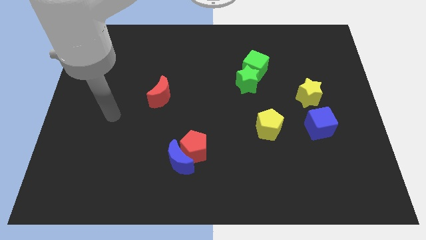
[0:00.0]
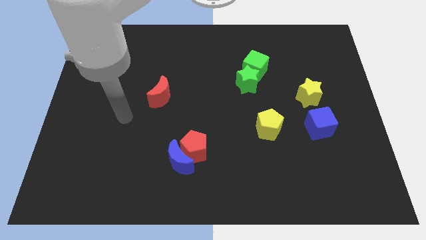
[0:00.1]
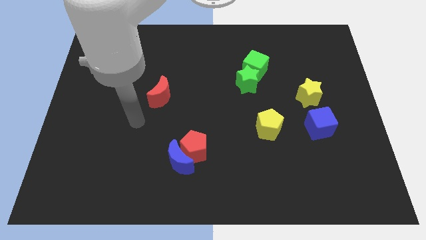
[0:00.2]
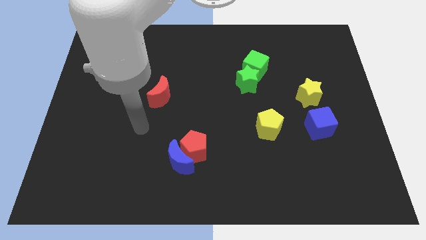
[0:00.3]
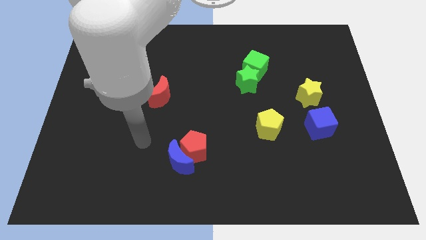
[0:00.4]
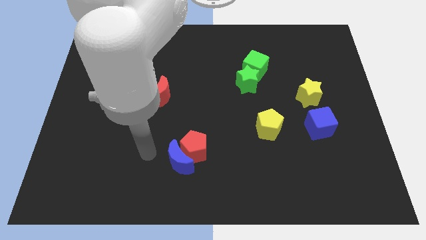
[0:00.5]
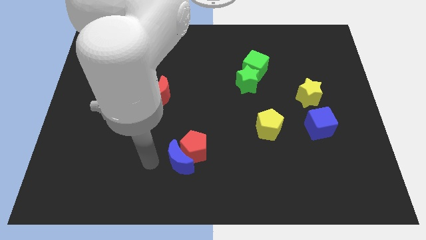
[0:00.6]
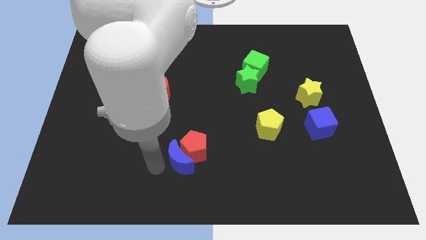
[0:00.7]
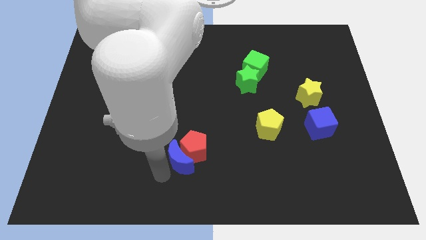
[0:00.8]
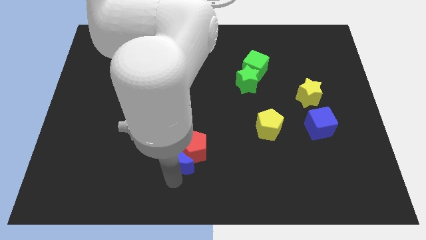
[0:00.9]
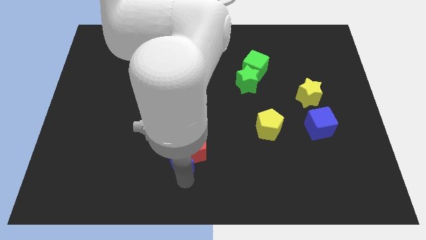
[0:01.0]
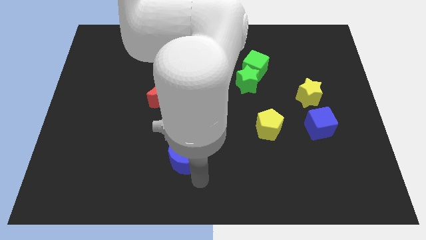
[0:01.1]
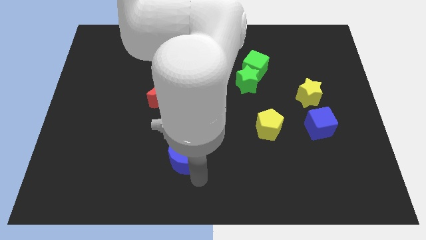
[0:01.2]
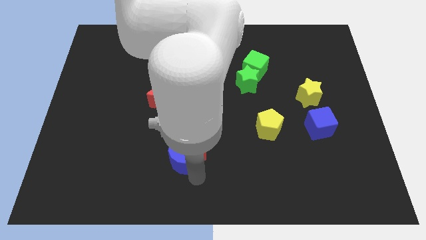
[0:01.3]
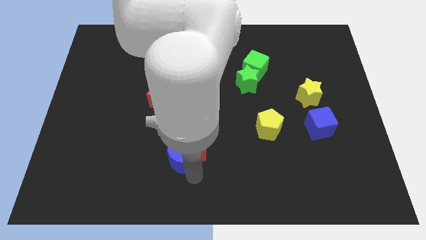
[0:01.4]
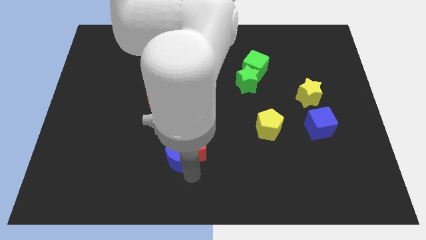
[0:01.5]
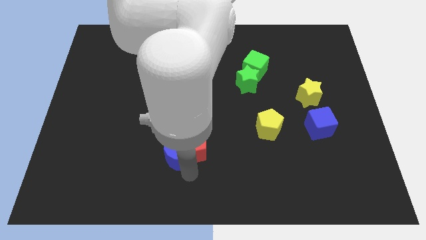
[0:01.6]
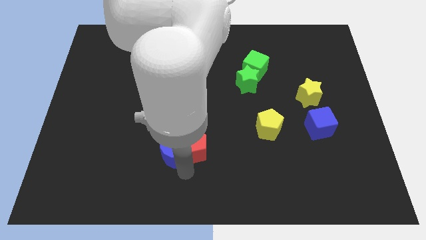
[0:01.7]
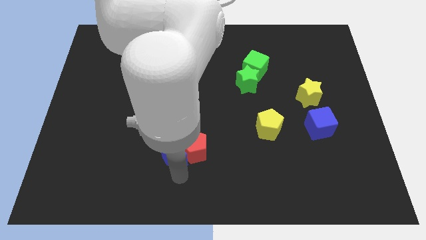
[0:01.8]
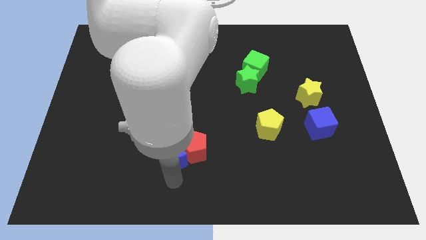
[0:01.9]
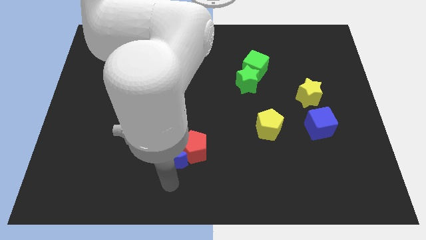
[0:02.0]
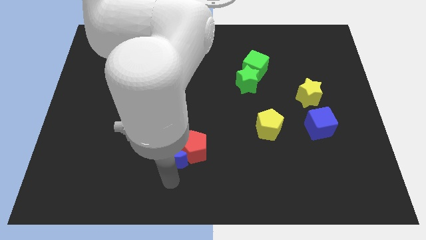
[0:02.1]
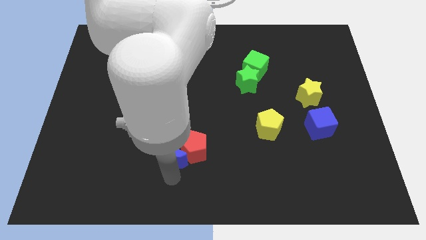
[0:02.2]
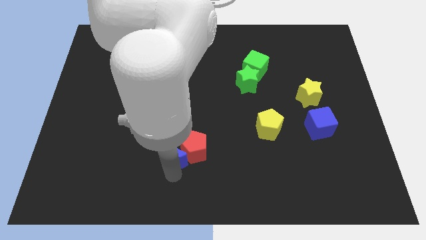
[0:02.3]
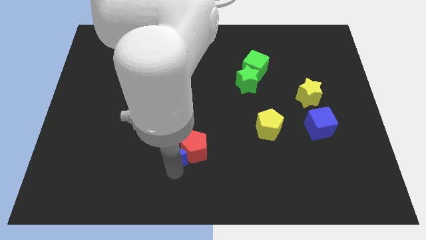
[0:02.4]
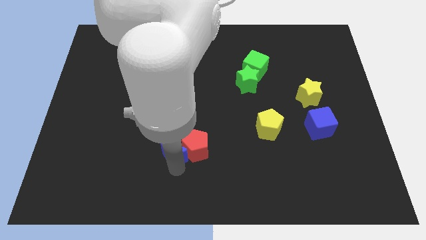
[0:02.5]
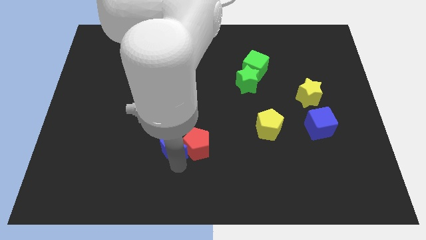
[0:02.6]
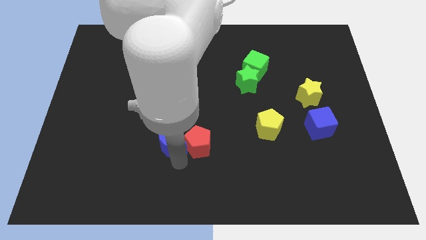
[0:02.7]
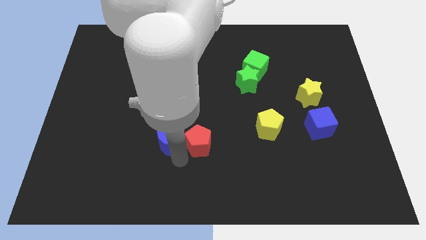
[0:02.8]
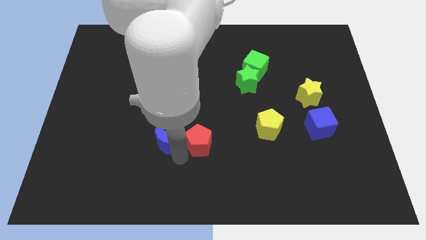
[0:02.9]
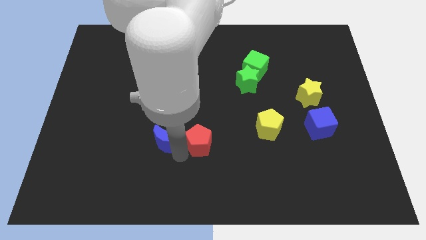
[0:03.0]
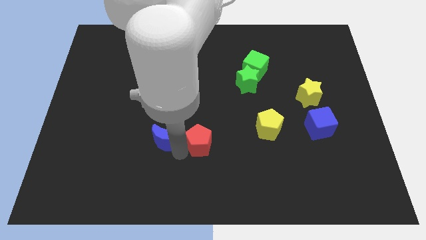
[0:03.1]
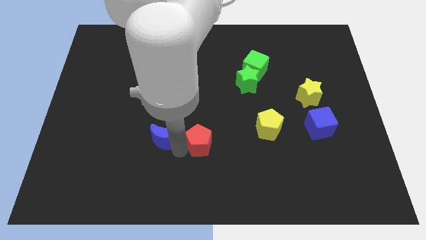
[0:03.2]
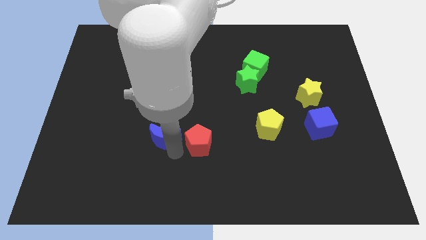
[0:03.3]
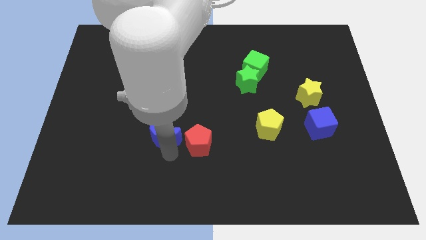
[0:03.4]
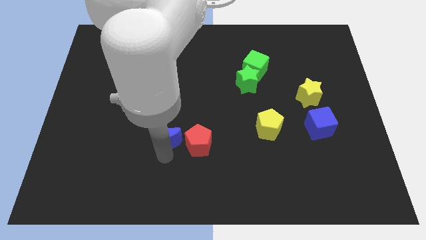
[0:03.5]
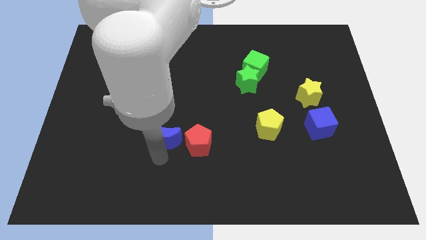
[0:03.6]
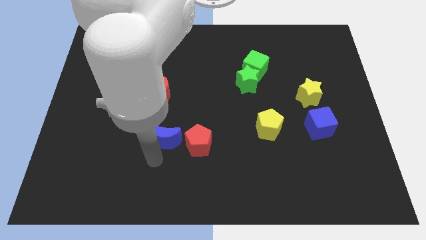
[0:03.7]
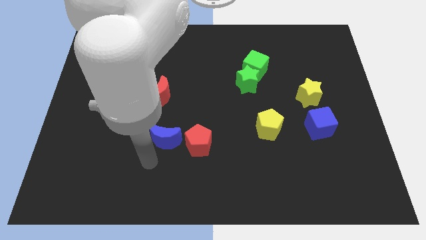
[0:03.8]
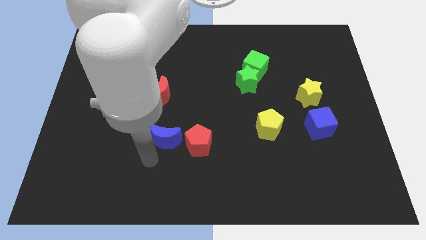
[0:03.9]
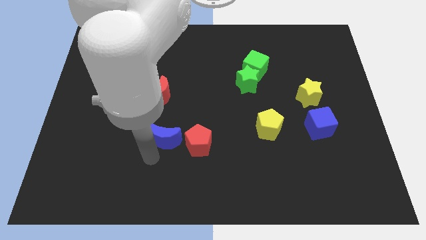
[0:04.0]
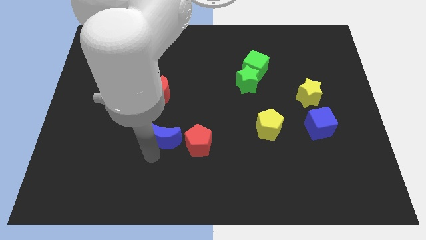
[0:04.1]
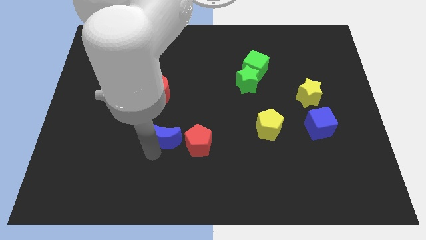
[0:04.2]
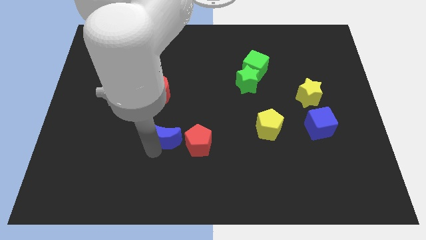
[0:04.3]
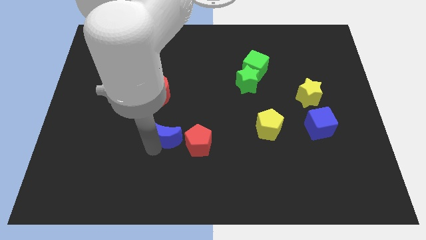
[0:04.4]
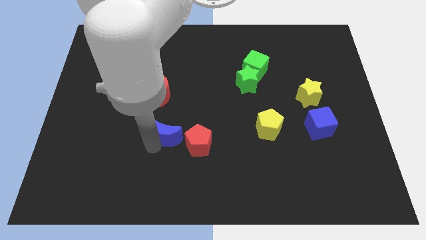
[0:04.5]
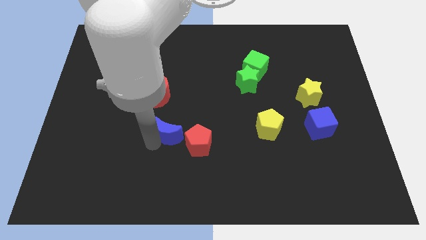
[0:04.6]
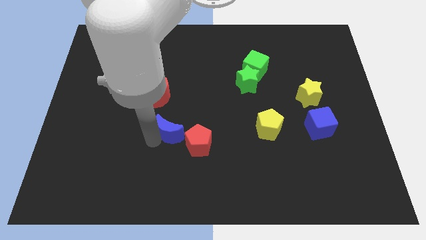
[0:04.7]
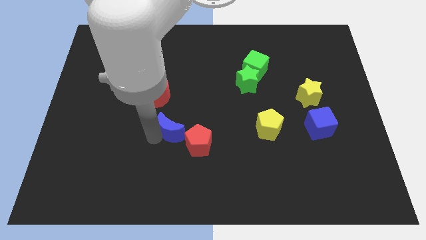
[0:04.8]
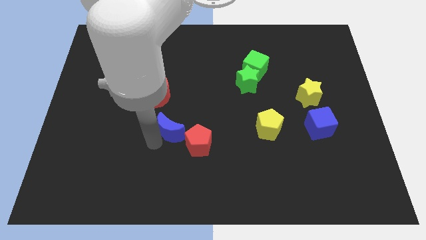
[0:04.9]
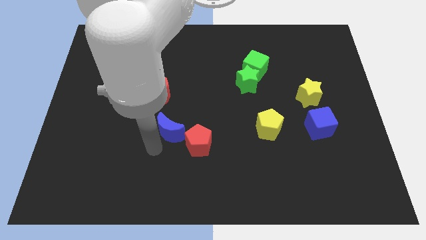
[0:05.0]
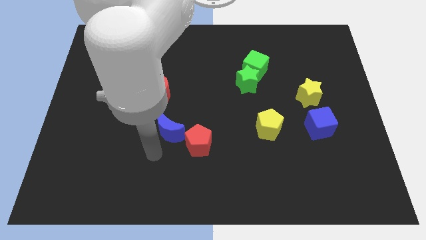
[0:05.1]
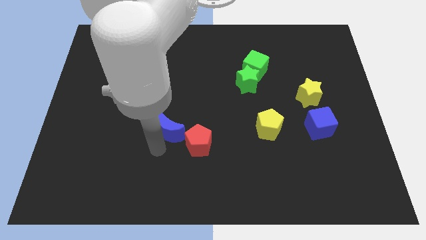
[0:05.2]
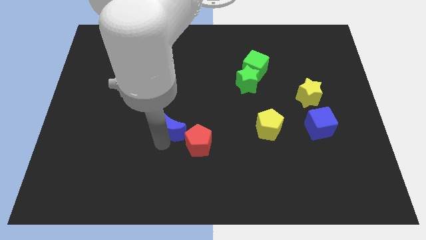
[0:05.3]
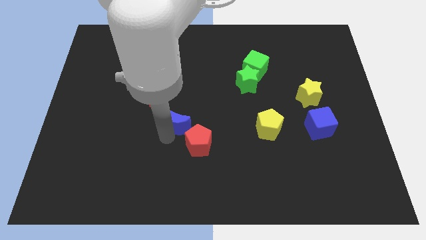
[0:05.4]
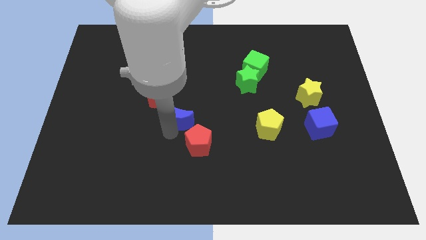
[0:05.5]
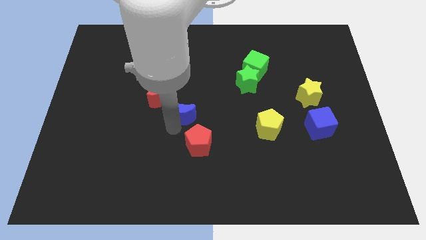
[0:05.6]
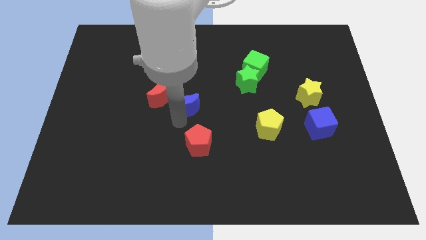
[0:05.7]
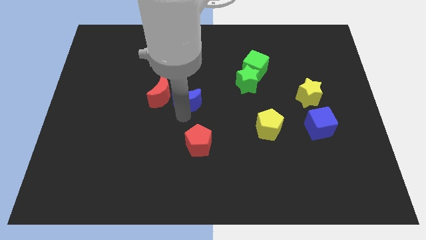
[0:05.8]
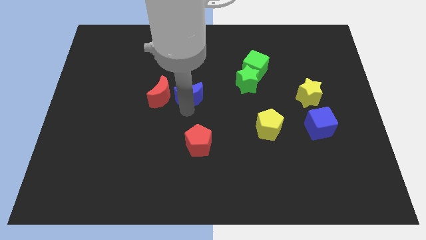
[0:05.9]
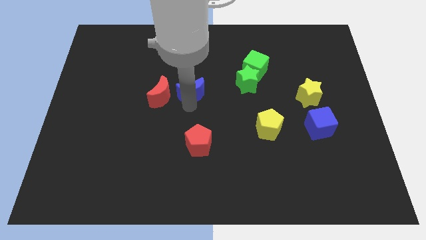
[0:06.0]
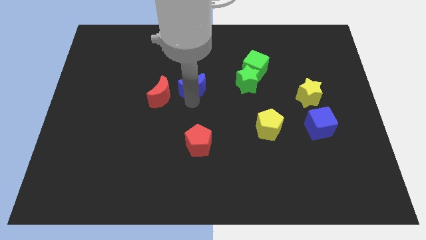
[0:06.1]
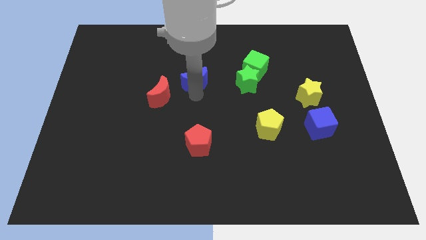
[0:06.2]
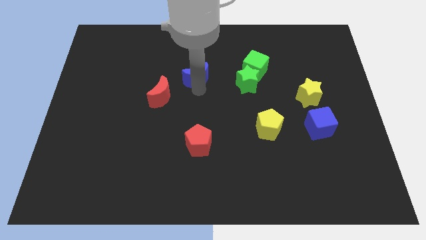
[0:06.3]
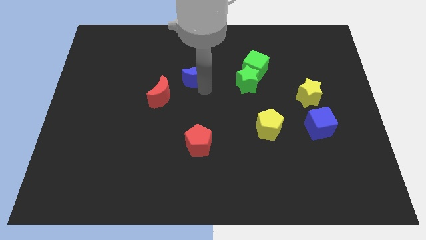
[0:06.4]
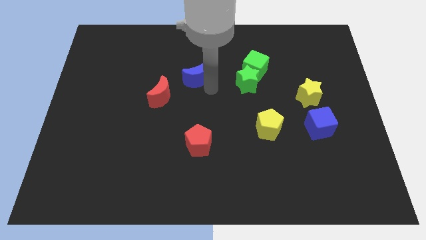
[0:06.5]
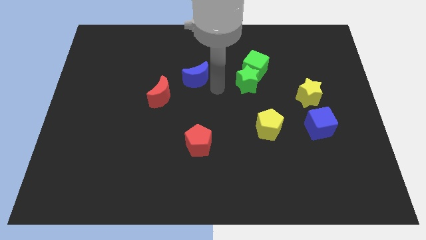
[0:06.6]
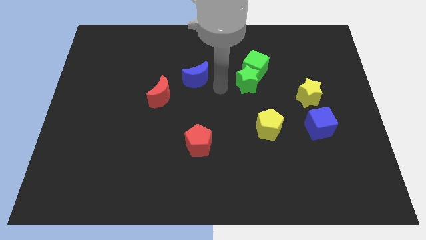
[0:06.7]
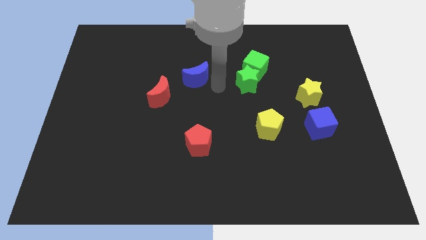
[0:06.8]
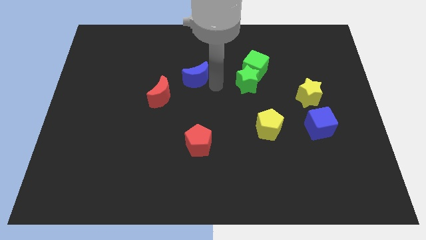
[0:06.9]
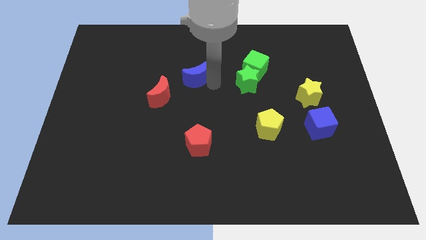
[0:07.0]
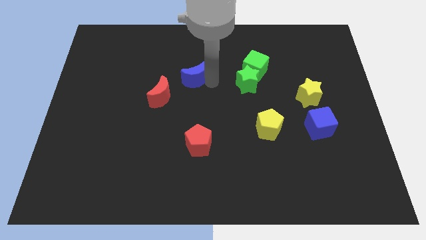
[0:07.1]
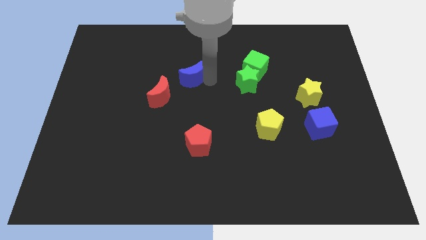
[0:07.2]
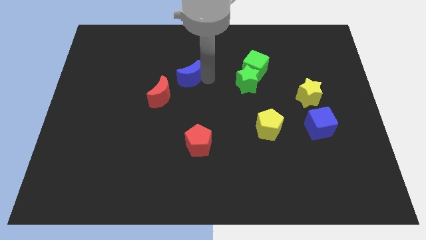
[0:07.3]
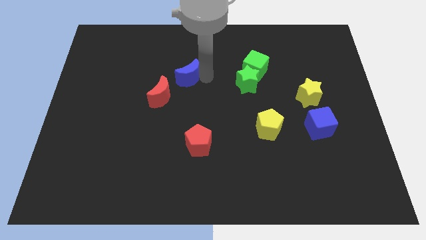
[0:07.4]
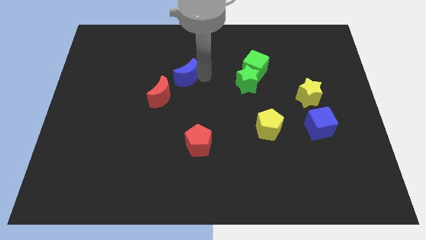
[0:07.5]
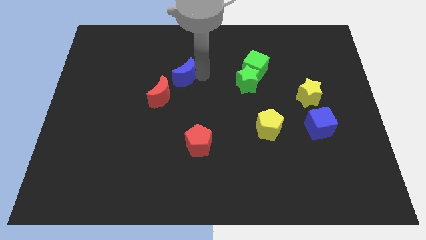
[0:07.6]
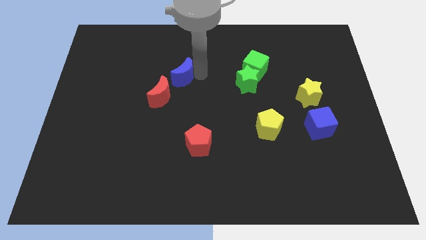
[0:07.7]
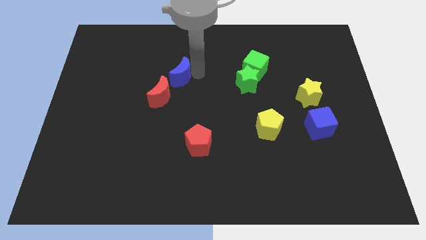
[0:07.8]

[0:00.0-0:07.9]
put the blue moon above the red moon
